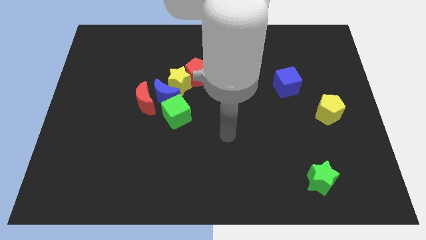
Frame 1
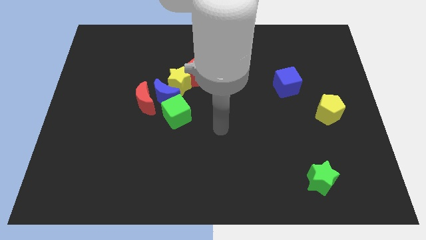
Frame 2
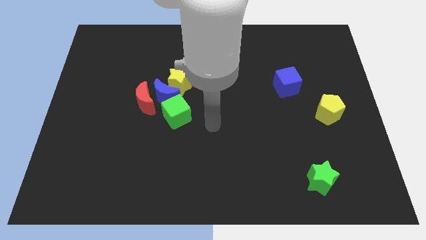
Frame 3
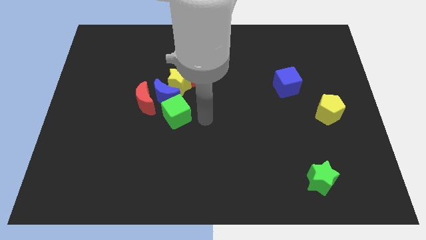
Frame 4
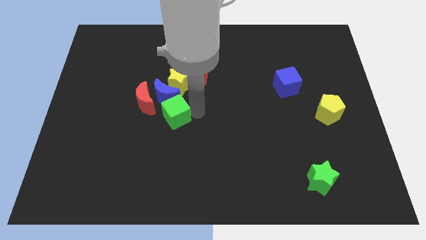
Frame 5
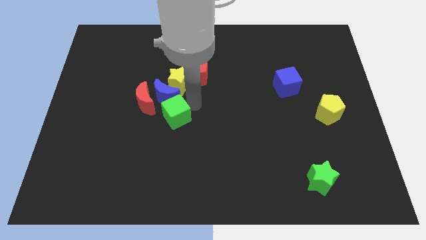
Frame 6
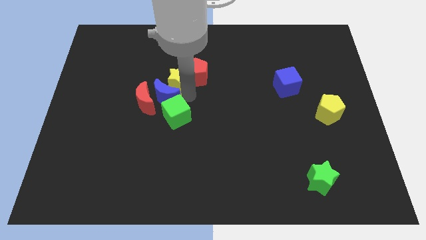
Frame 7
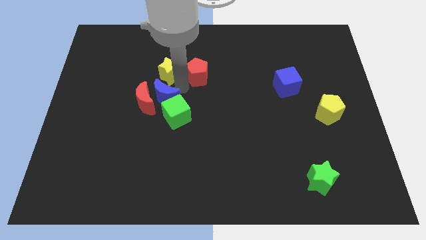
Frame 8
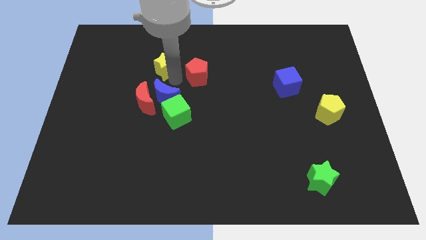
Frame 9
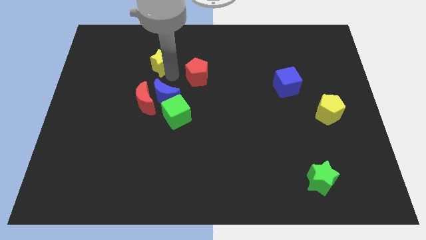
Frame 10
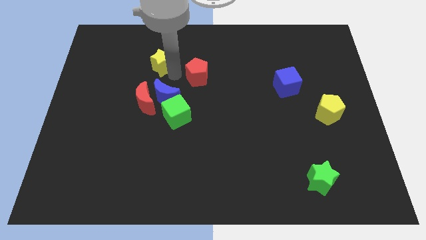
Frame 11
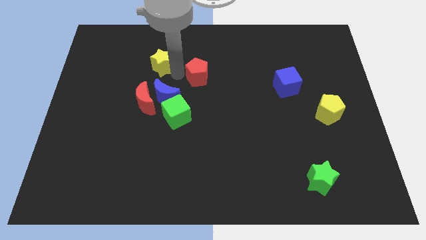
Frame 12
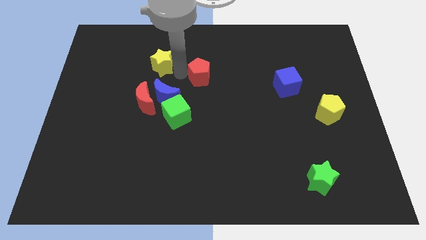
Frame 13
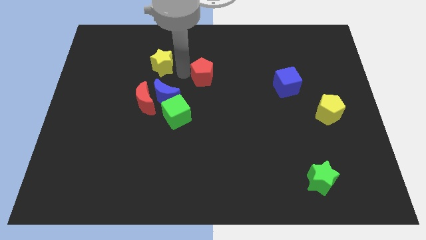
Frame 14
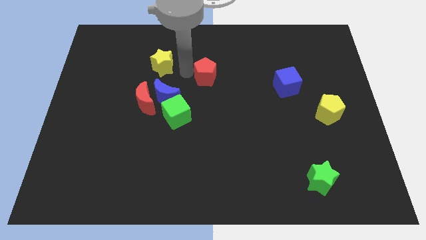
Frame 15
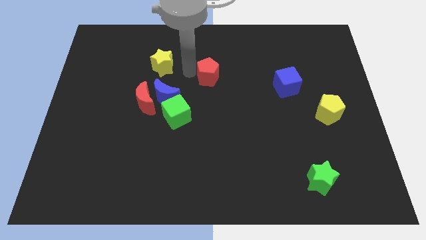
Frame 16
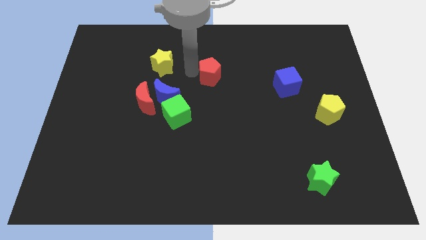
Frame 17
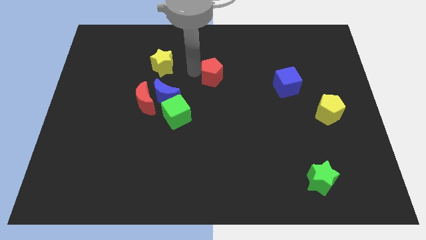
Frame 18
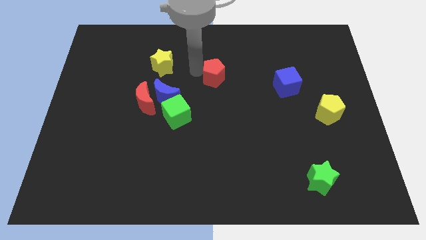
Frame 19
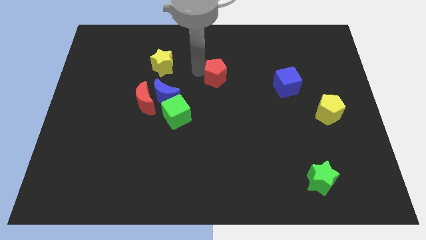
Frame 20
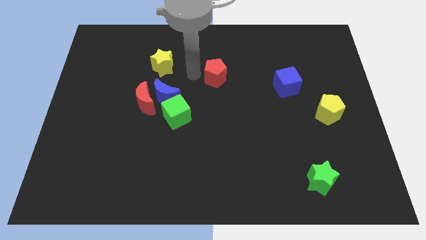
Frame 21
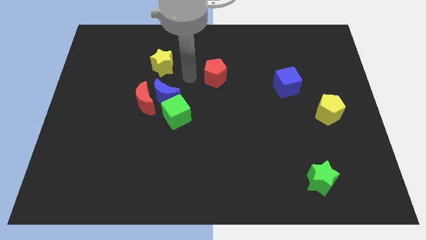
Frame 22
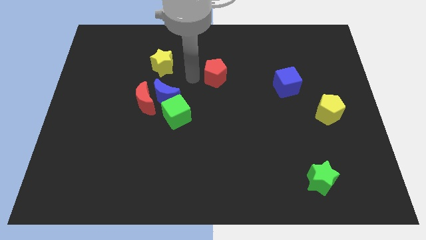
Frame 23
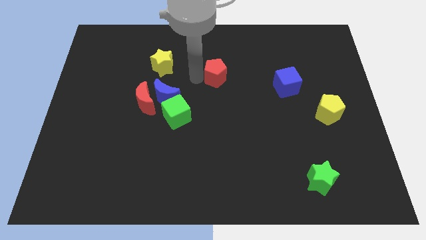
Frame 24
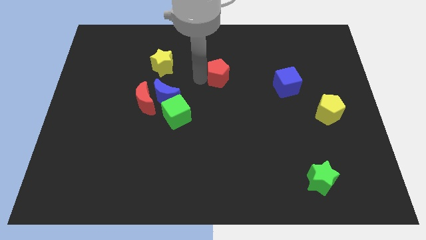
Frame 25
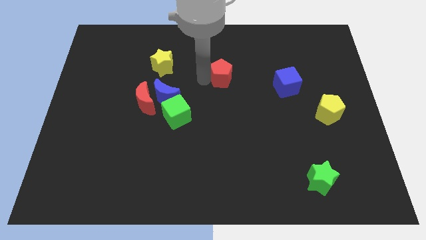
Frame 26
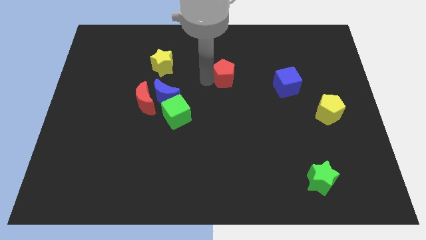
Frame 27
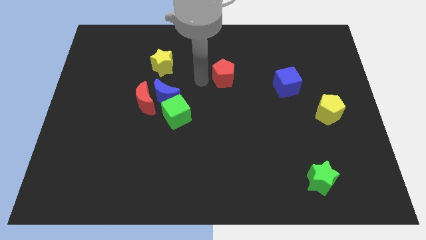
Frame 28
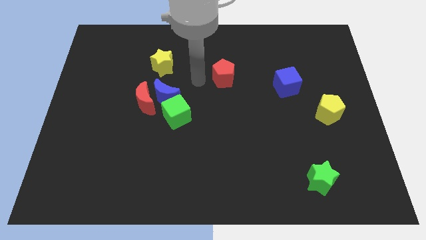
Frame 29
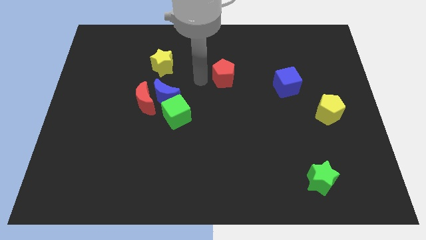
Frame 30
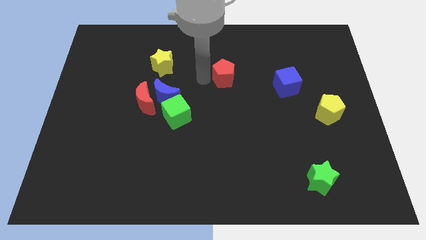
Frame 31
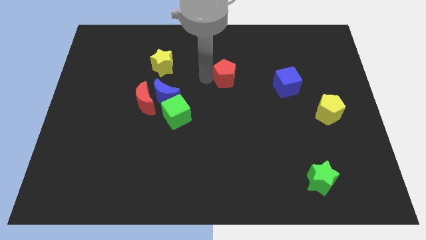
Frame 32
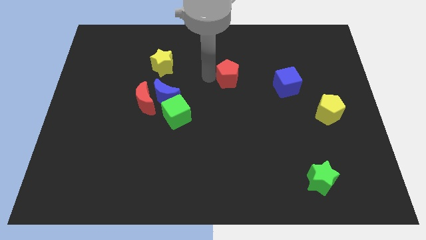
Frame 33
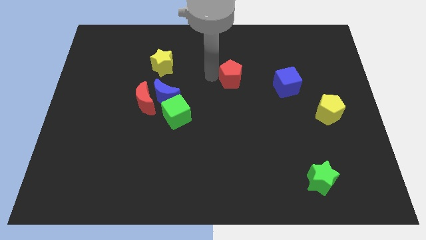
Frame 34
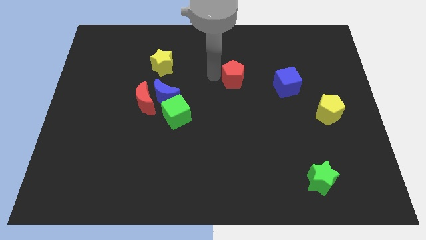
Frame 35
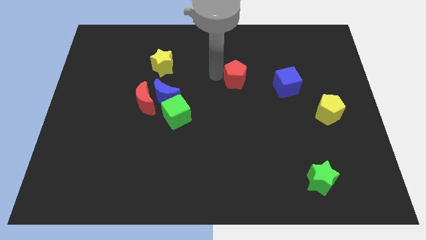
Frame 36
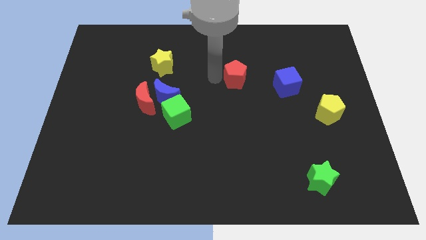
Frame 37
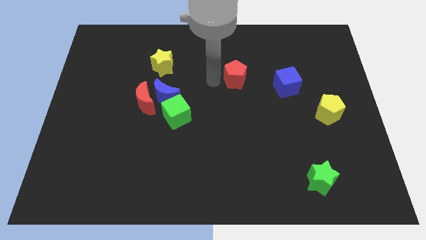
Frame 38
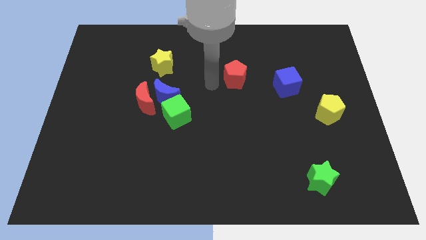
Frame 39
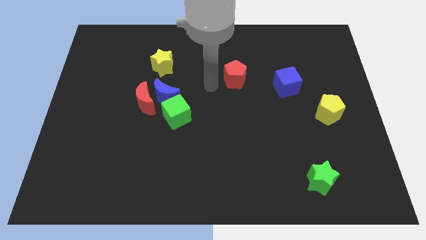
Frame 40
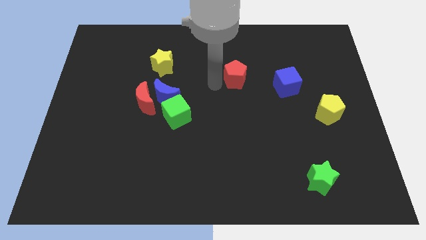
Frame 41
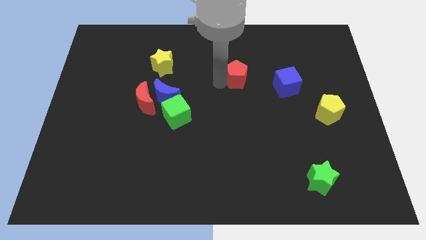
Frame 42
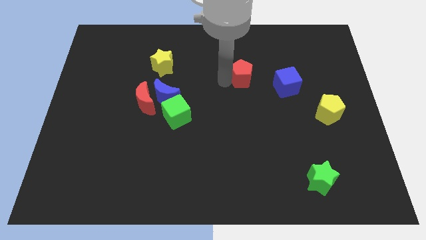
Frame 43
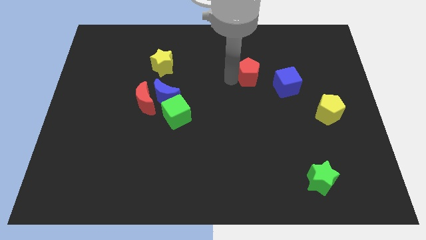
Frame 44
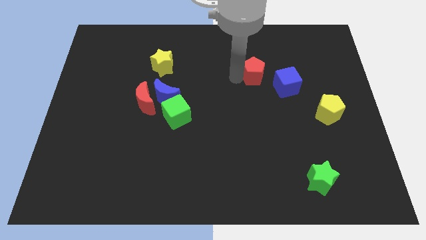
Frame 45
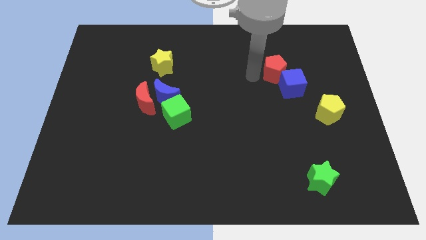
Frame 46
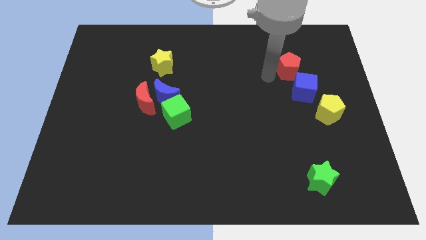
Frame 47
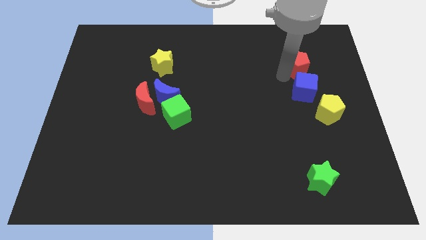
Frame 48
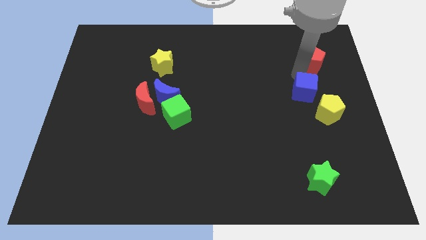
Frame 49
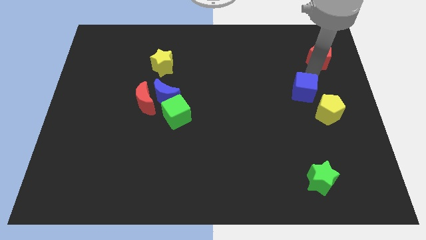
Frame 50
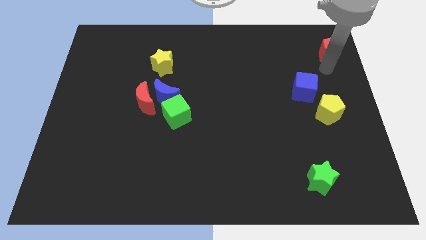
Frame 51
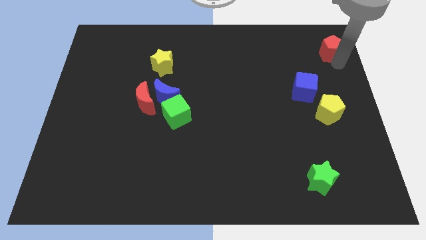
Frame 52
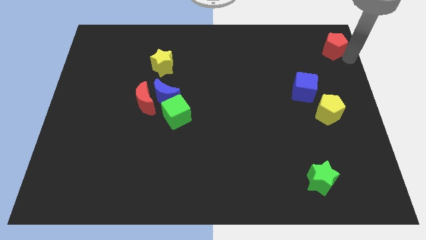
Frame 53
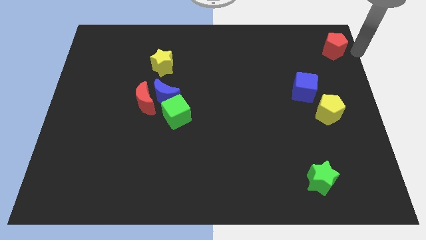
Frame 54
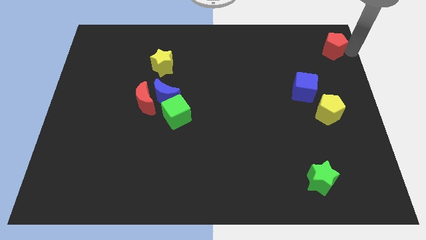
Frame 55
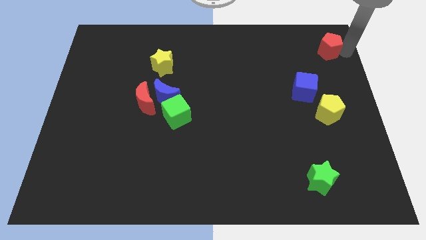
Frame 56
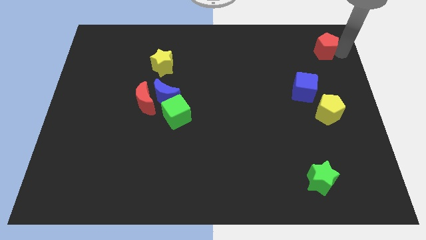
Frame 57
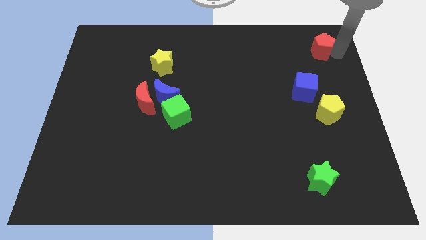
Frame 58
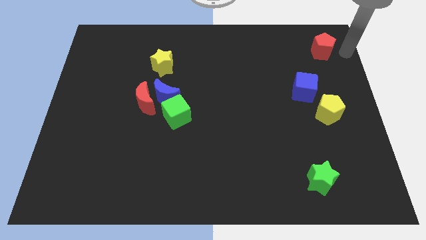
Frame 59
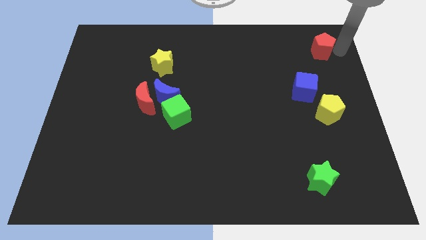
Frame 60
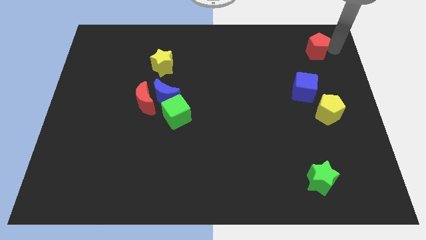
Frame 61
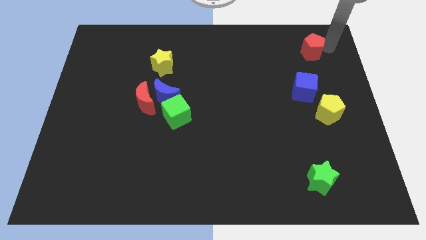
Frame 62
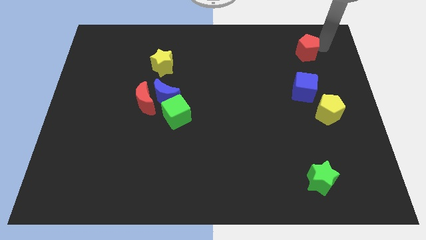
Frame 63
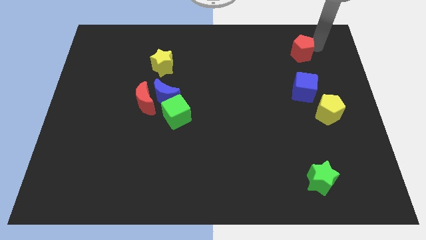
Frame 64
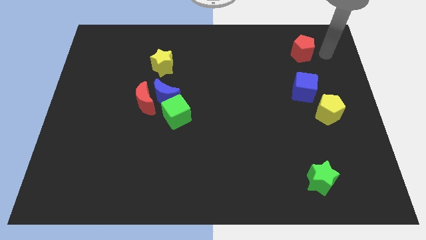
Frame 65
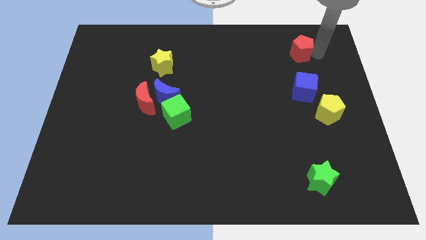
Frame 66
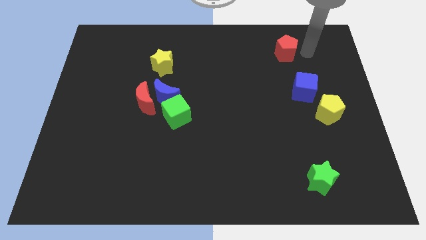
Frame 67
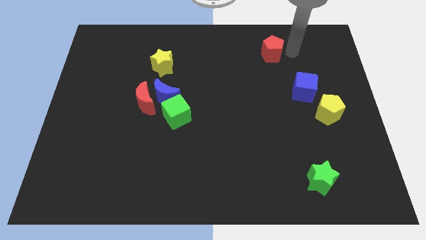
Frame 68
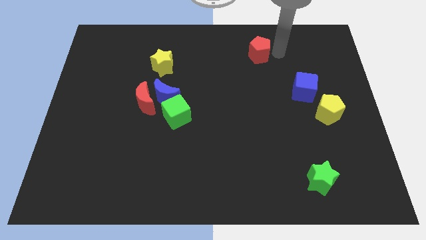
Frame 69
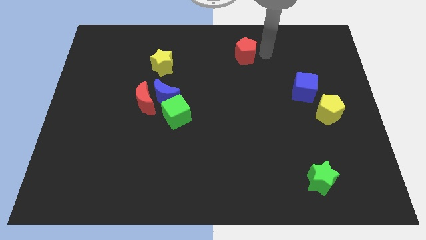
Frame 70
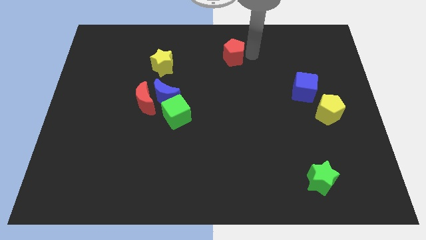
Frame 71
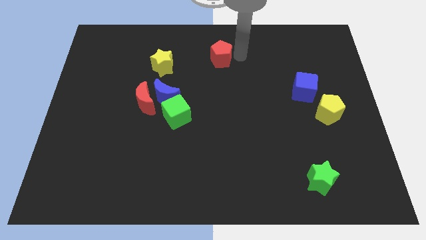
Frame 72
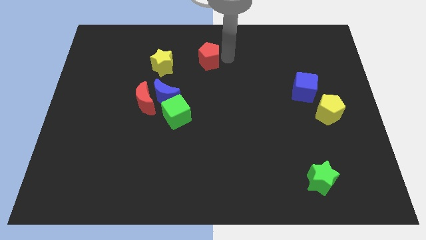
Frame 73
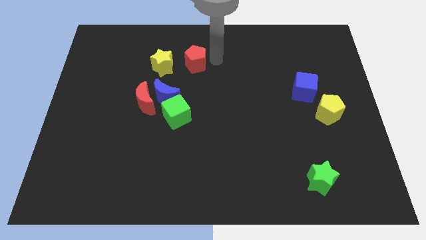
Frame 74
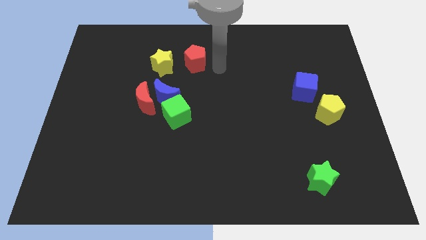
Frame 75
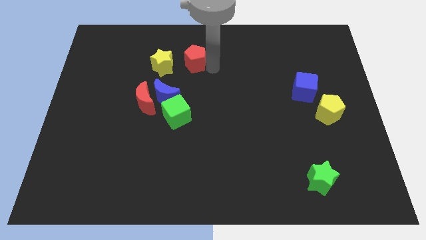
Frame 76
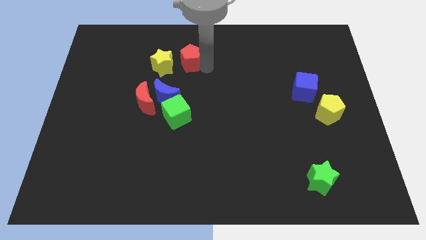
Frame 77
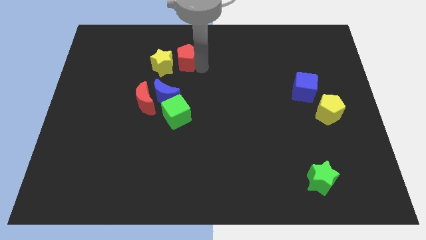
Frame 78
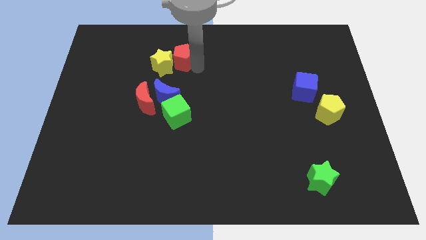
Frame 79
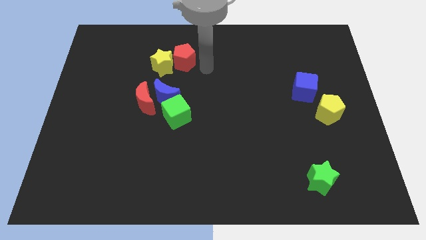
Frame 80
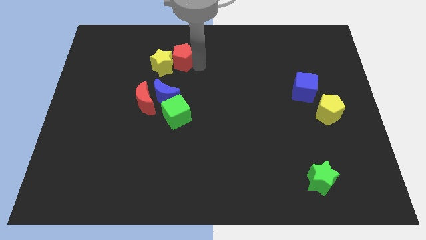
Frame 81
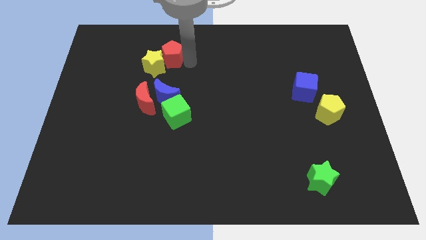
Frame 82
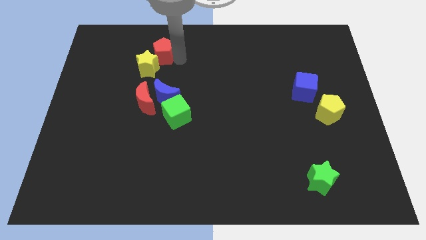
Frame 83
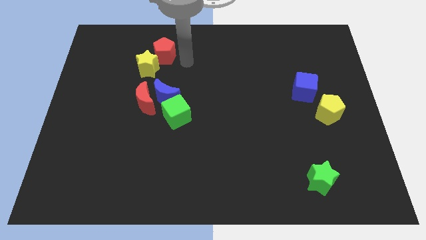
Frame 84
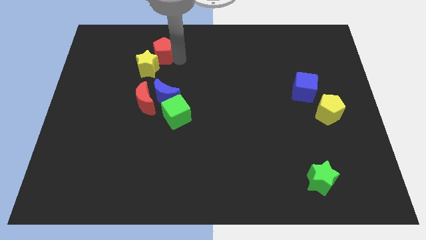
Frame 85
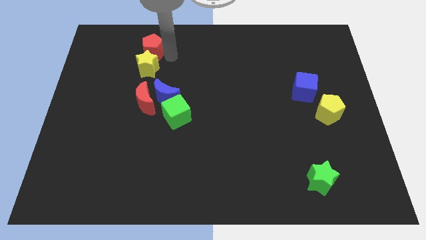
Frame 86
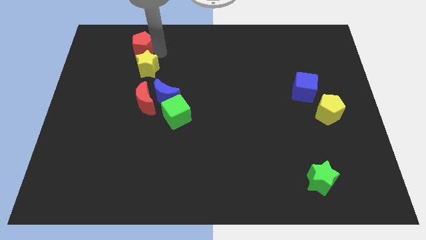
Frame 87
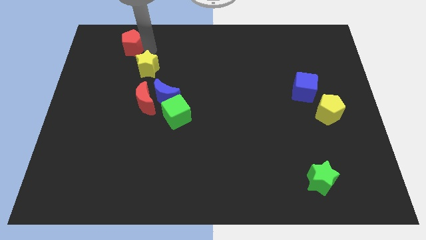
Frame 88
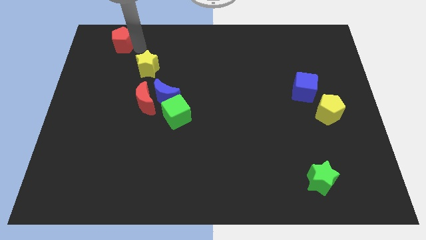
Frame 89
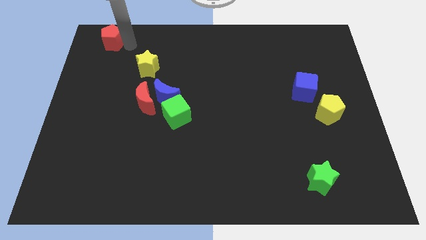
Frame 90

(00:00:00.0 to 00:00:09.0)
slide the red pentagon to the top left
